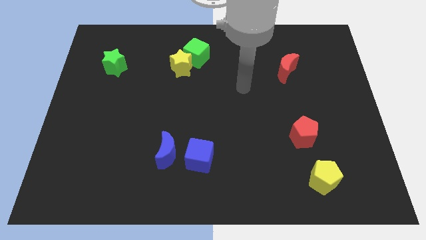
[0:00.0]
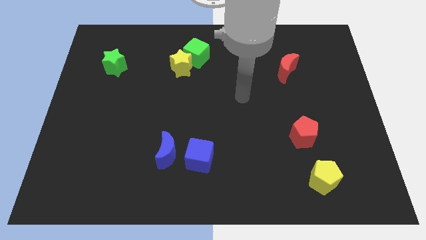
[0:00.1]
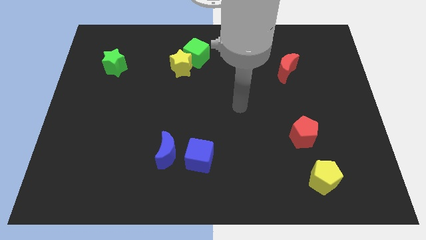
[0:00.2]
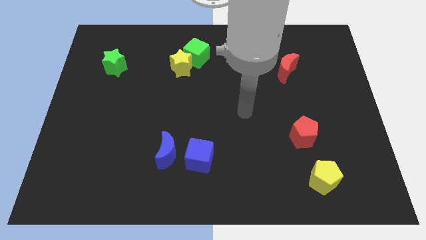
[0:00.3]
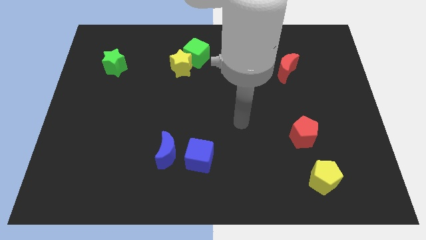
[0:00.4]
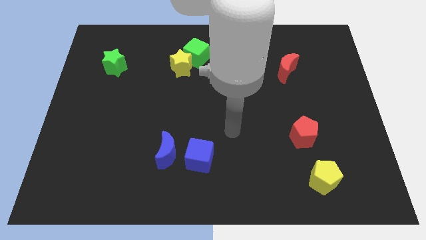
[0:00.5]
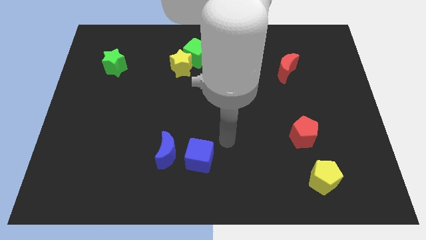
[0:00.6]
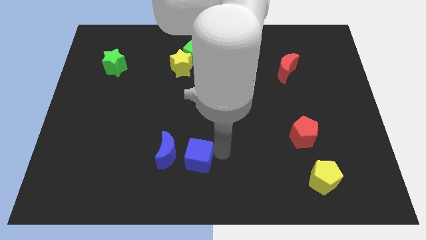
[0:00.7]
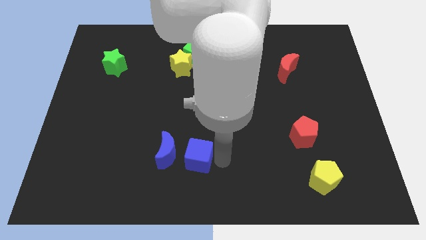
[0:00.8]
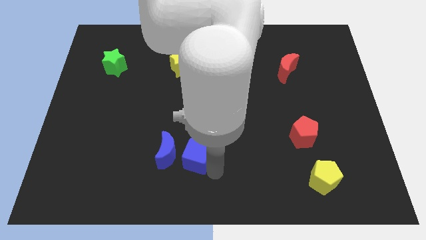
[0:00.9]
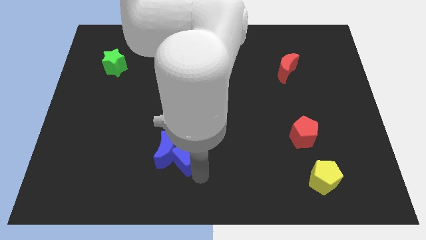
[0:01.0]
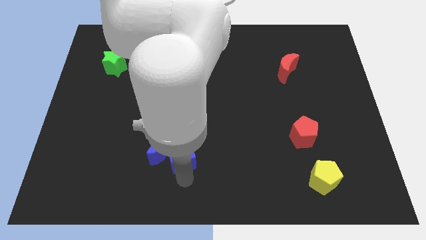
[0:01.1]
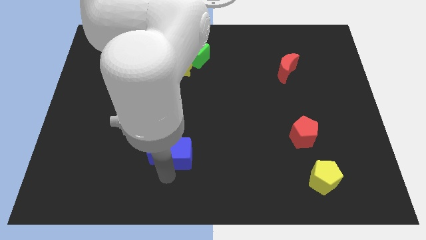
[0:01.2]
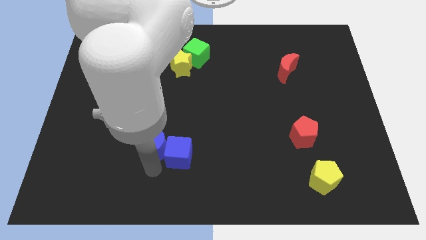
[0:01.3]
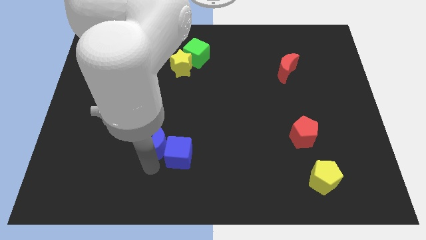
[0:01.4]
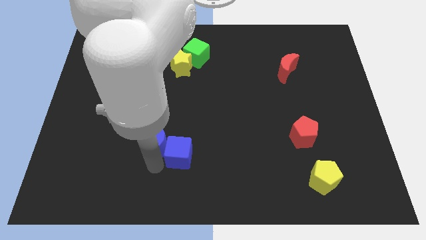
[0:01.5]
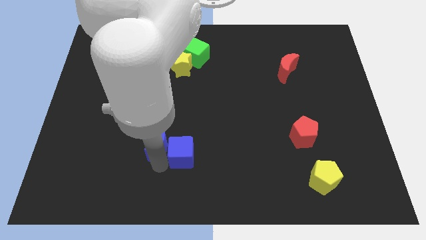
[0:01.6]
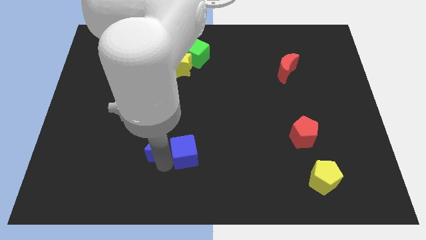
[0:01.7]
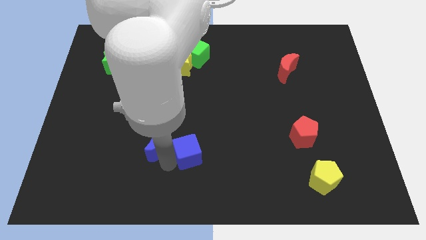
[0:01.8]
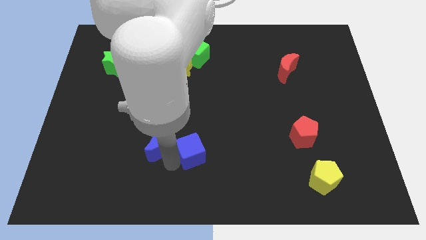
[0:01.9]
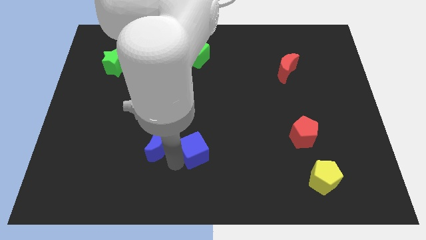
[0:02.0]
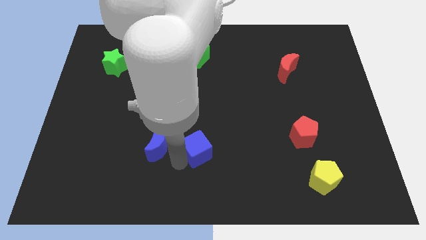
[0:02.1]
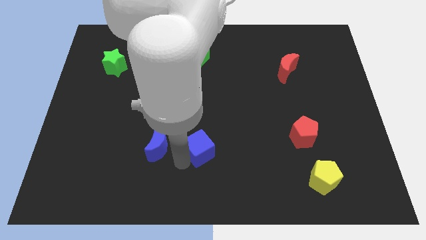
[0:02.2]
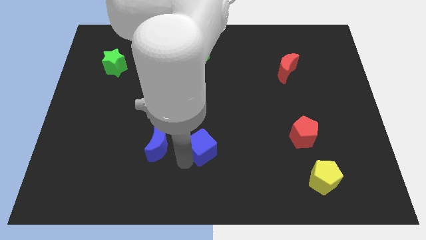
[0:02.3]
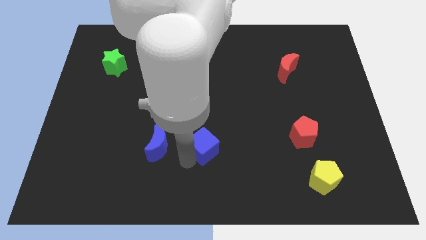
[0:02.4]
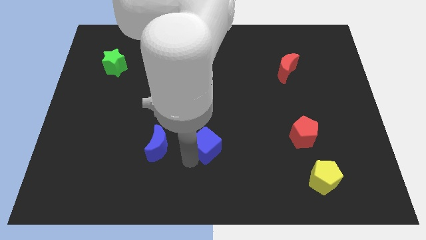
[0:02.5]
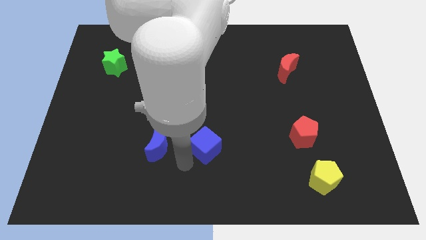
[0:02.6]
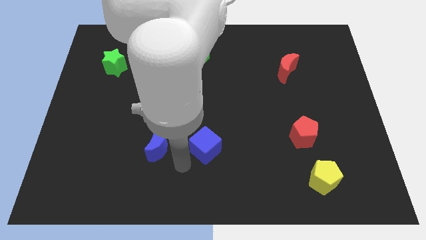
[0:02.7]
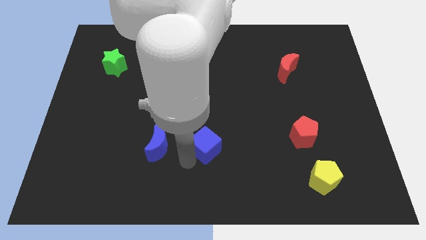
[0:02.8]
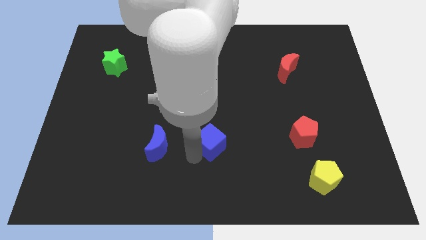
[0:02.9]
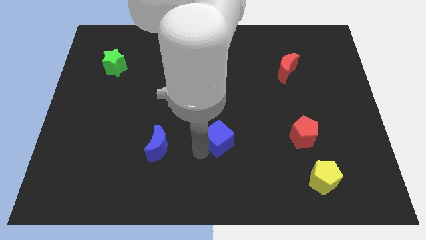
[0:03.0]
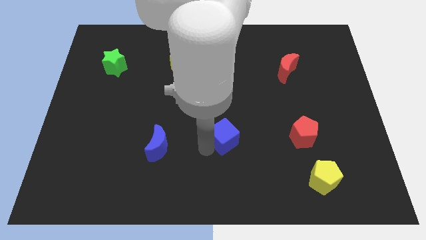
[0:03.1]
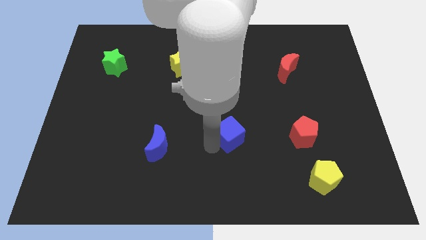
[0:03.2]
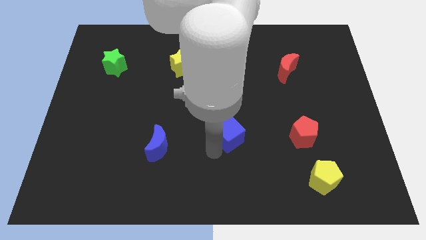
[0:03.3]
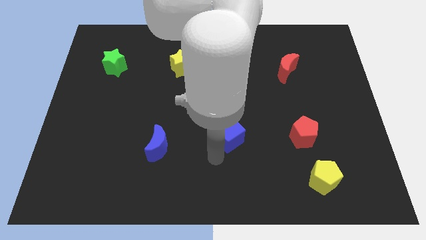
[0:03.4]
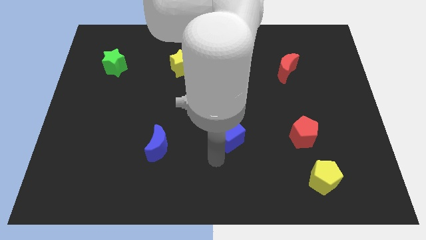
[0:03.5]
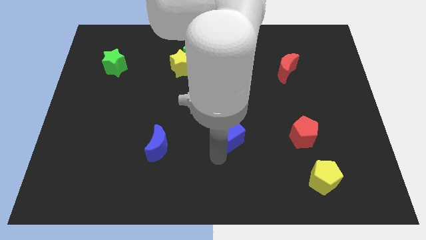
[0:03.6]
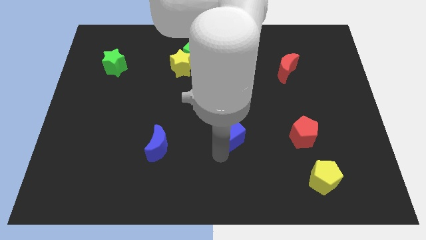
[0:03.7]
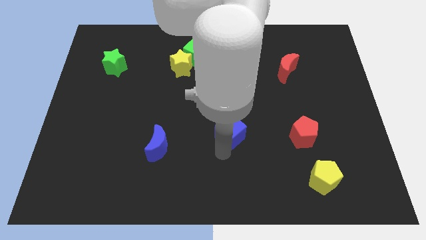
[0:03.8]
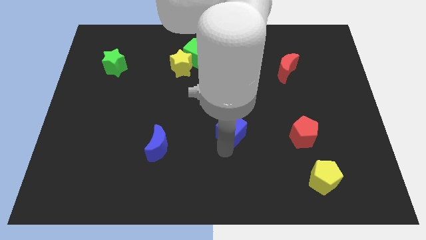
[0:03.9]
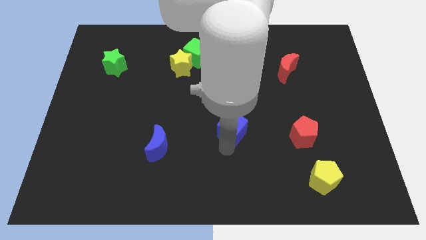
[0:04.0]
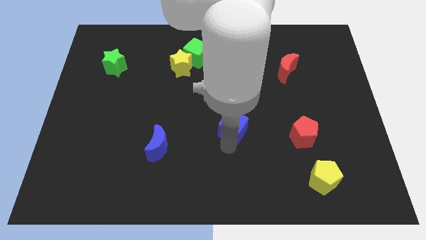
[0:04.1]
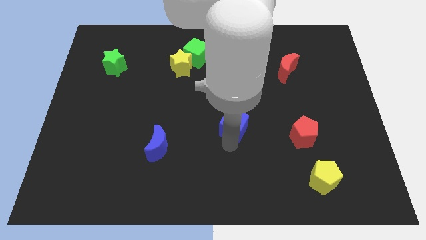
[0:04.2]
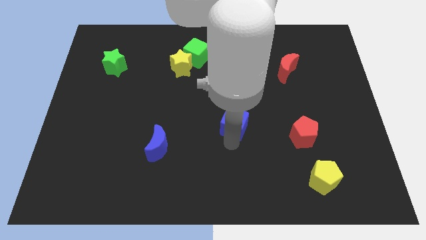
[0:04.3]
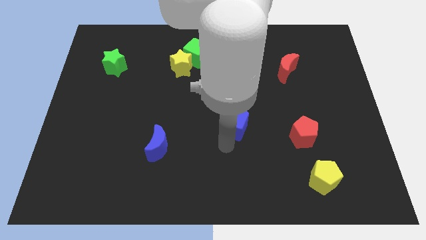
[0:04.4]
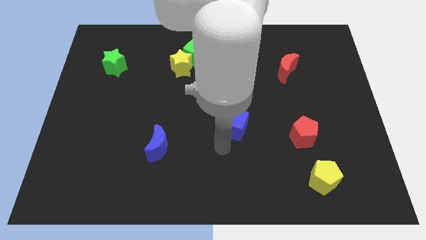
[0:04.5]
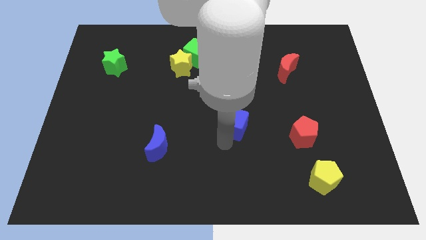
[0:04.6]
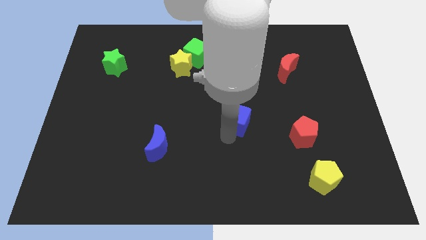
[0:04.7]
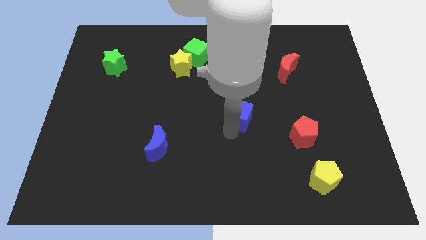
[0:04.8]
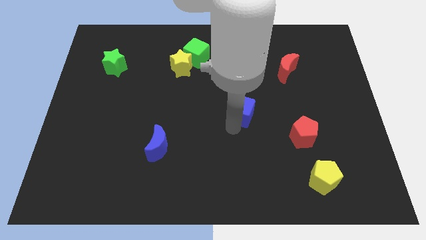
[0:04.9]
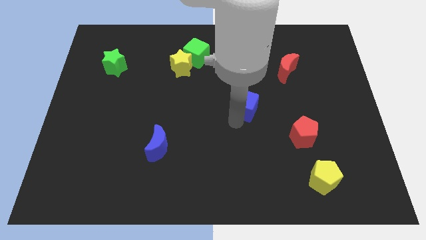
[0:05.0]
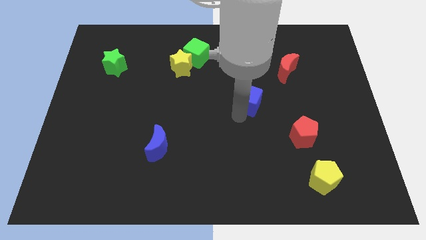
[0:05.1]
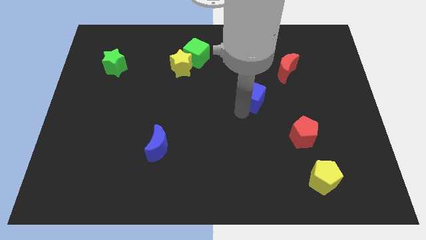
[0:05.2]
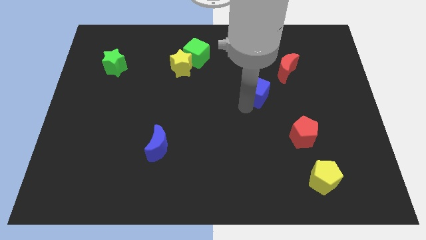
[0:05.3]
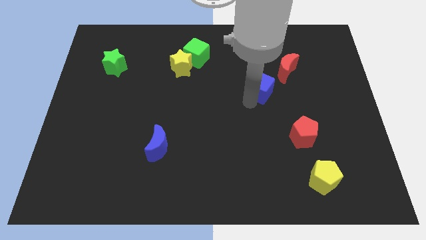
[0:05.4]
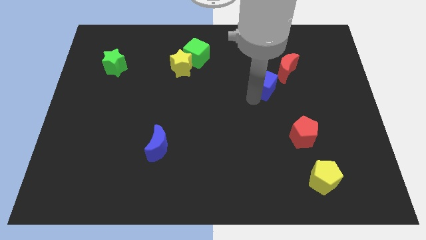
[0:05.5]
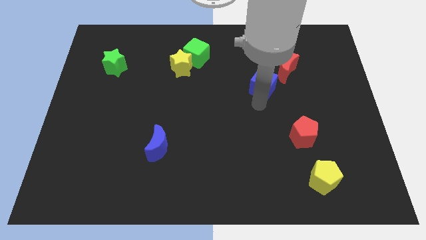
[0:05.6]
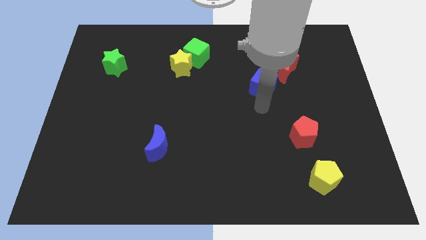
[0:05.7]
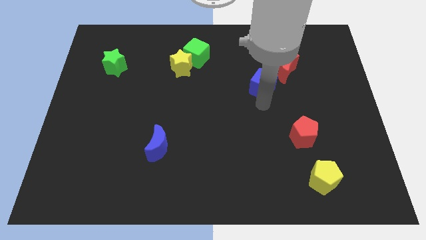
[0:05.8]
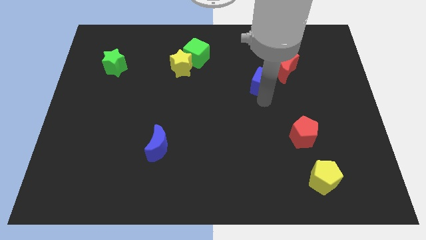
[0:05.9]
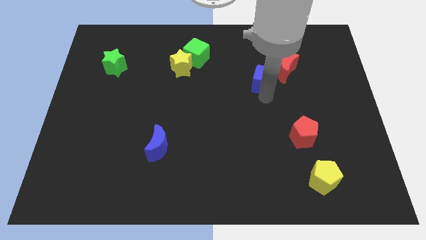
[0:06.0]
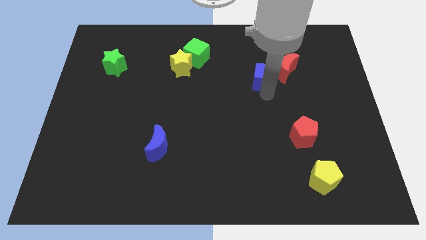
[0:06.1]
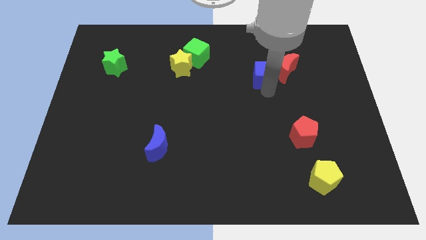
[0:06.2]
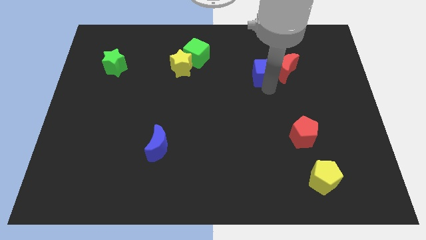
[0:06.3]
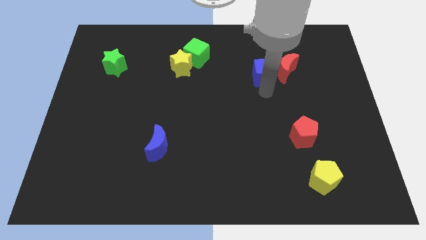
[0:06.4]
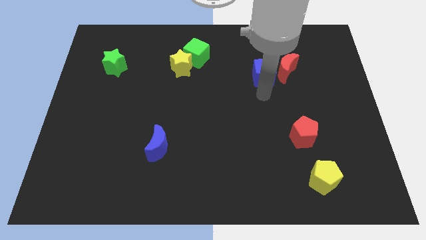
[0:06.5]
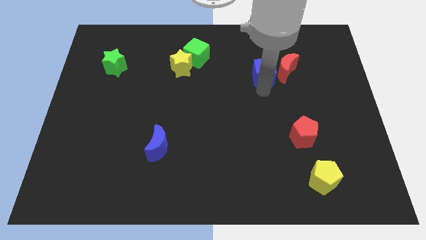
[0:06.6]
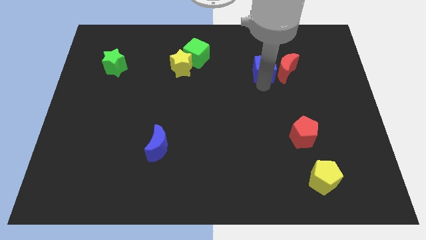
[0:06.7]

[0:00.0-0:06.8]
slide the blue cube to the top left of the red moon

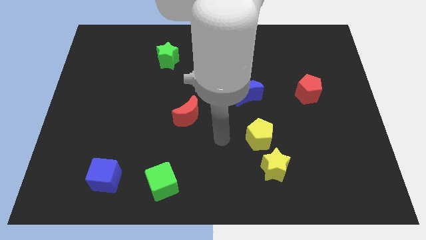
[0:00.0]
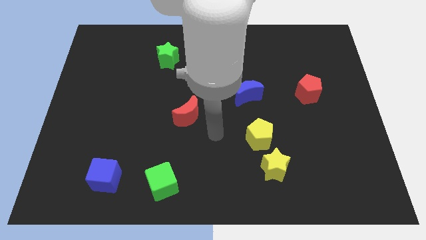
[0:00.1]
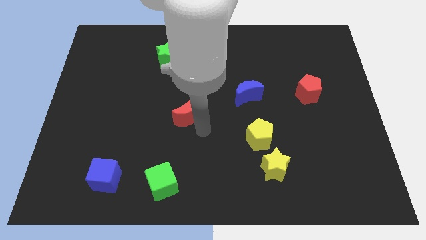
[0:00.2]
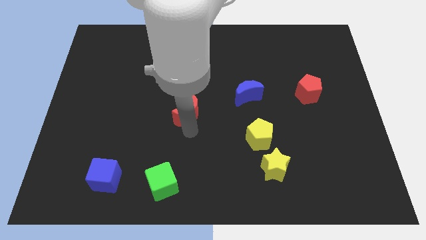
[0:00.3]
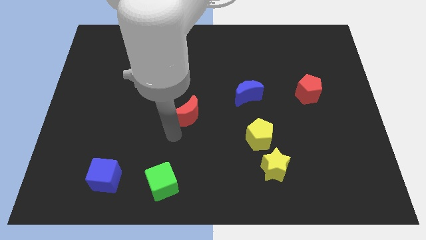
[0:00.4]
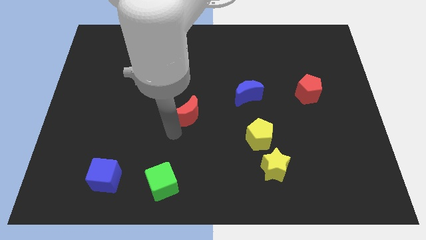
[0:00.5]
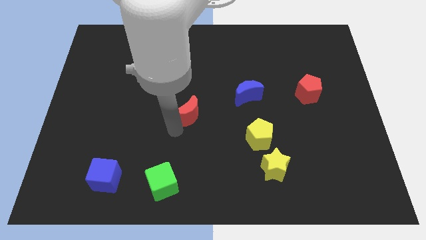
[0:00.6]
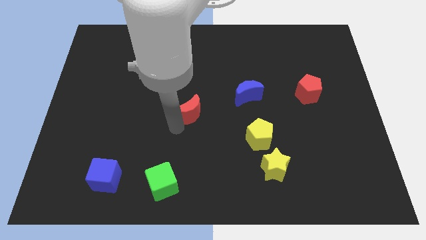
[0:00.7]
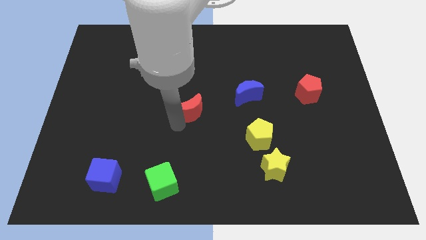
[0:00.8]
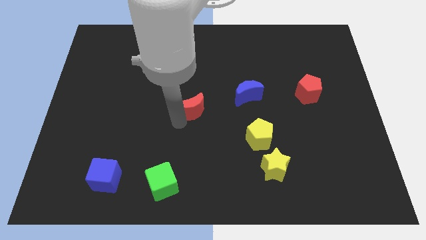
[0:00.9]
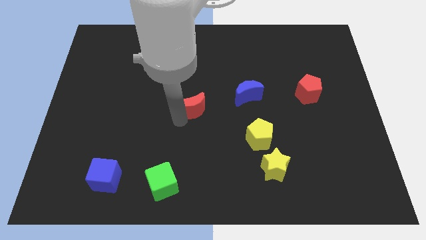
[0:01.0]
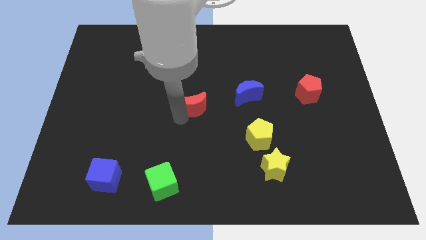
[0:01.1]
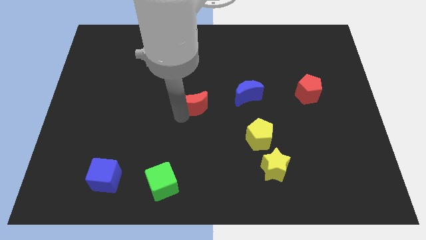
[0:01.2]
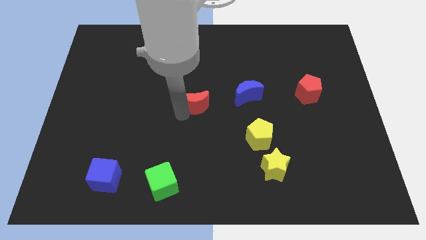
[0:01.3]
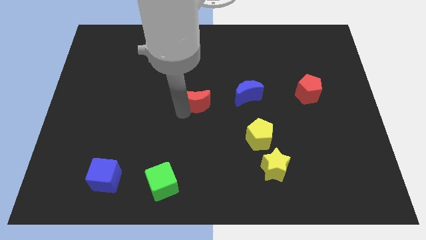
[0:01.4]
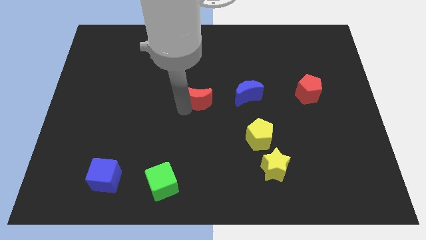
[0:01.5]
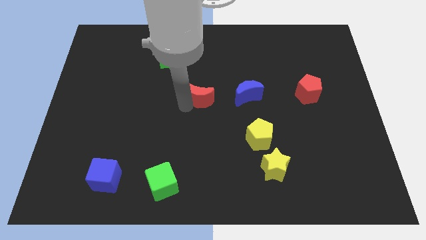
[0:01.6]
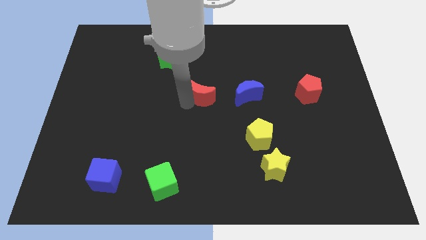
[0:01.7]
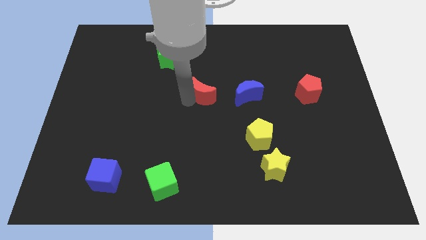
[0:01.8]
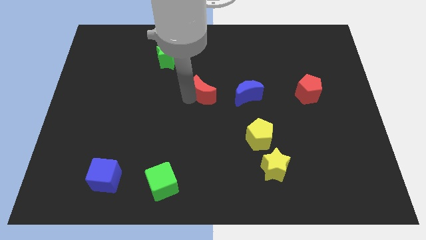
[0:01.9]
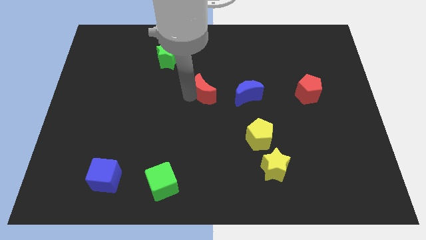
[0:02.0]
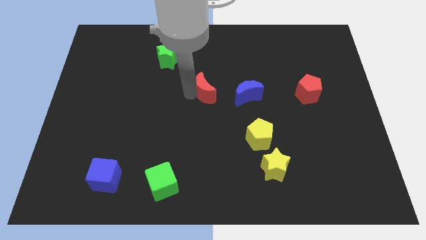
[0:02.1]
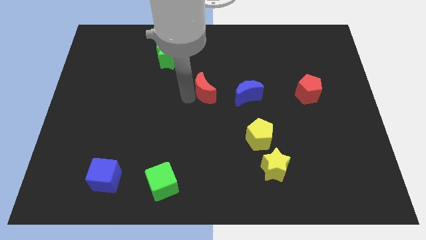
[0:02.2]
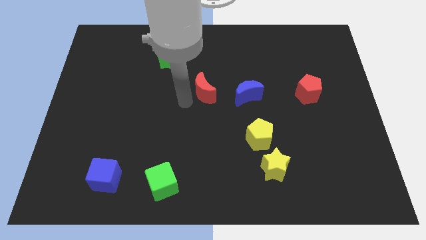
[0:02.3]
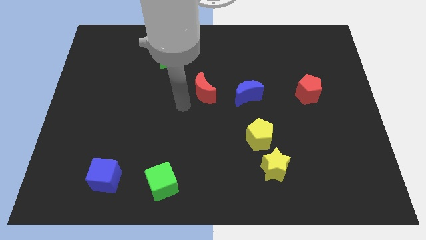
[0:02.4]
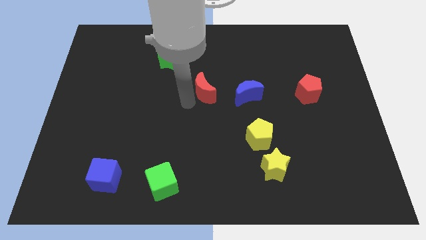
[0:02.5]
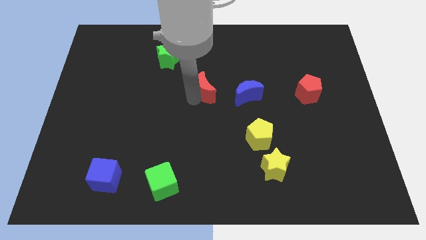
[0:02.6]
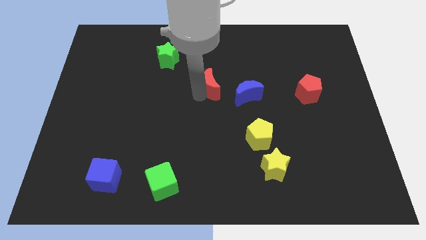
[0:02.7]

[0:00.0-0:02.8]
put the red moon to the top left side of the blue moon
